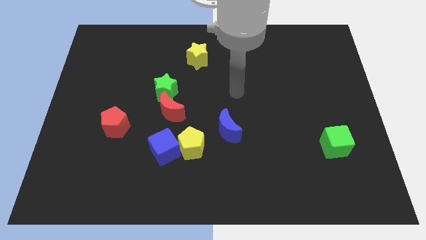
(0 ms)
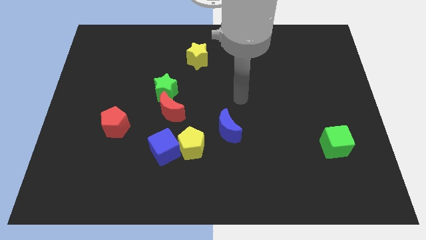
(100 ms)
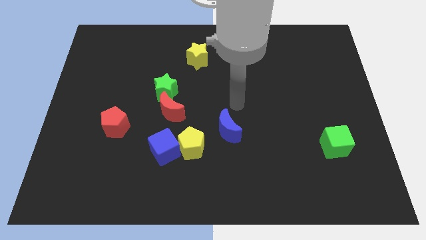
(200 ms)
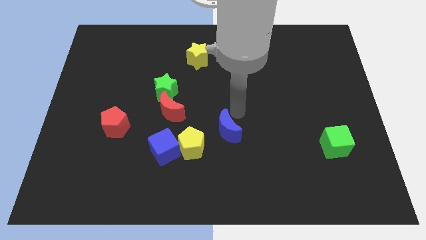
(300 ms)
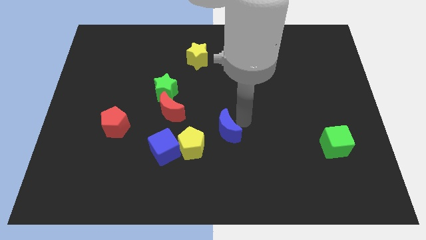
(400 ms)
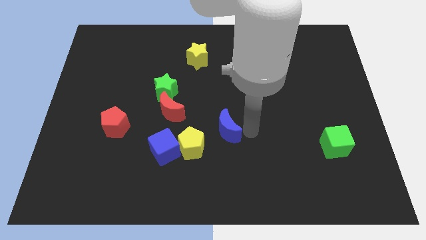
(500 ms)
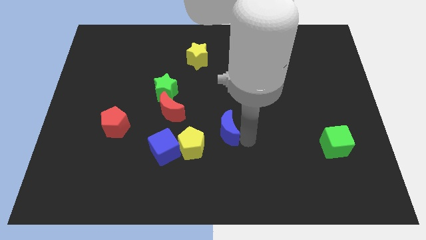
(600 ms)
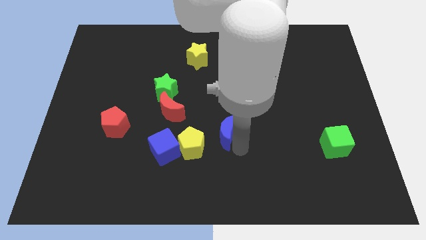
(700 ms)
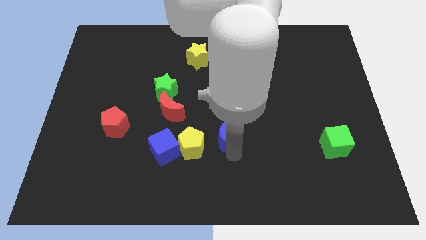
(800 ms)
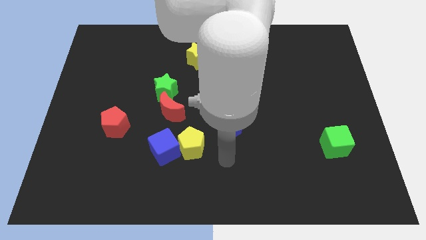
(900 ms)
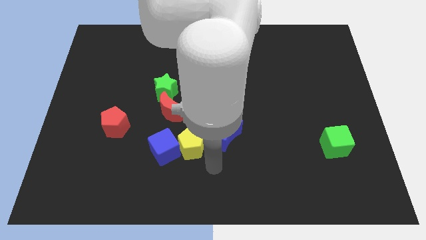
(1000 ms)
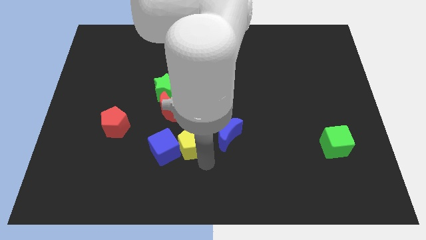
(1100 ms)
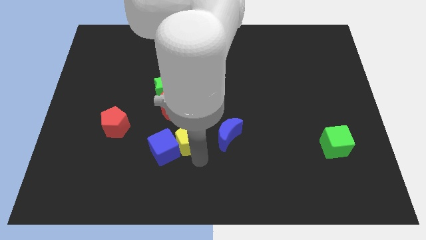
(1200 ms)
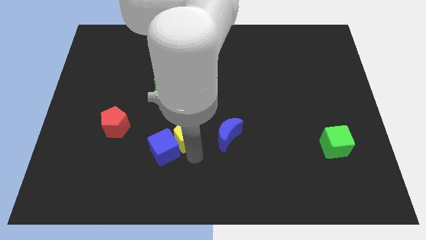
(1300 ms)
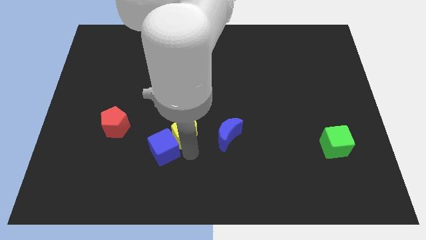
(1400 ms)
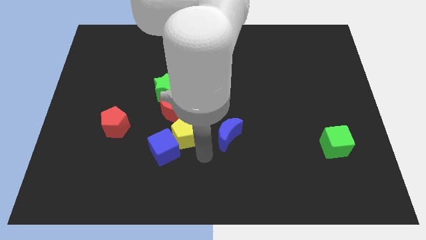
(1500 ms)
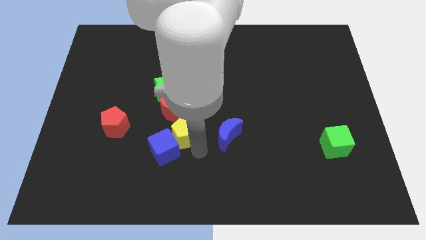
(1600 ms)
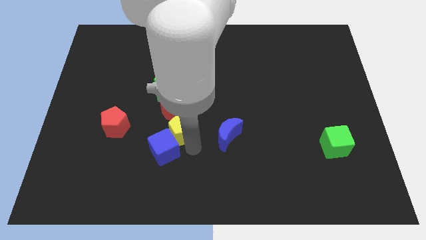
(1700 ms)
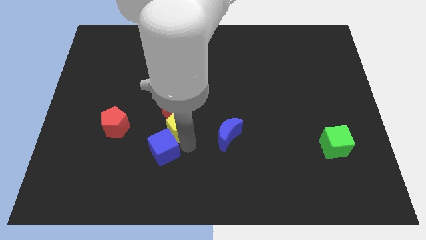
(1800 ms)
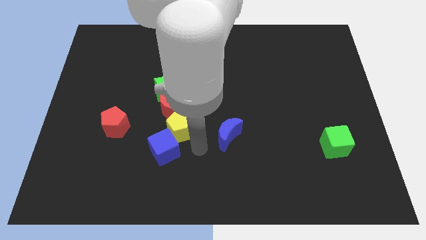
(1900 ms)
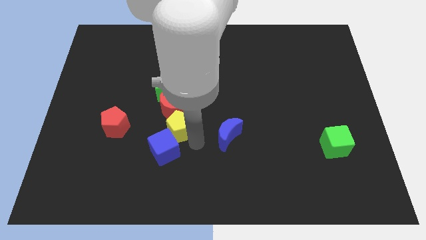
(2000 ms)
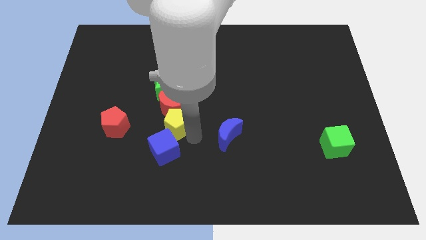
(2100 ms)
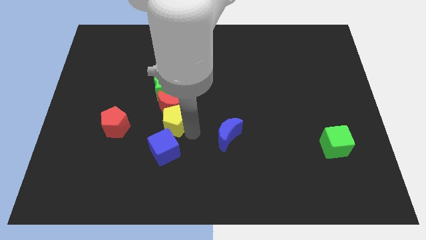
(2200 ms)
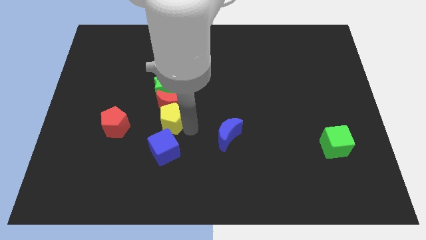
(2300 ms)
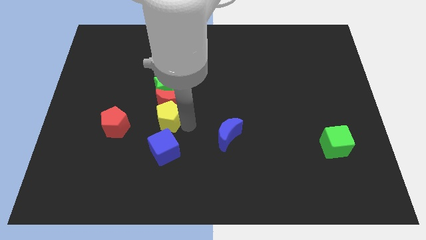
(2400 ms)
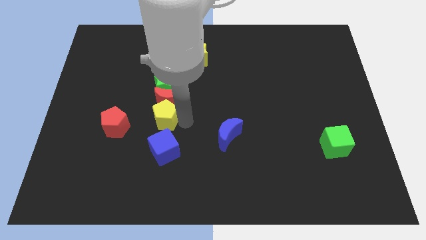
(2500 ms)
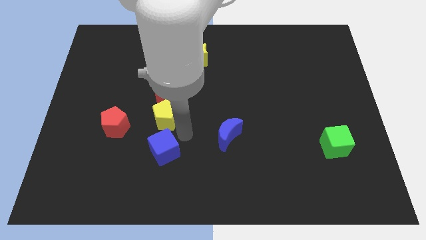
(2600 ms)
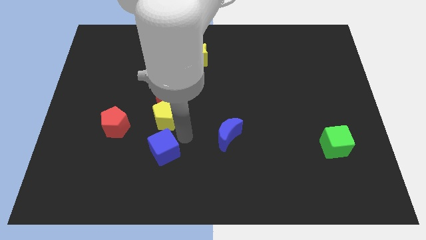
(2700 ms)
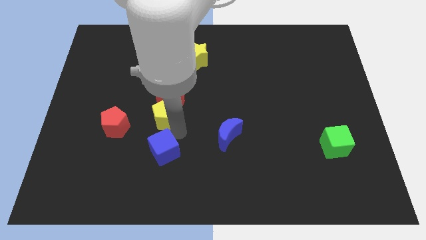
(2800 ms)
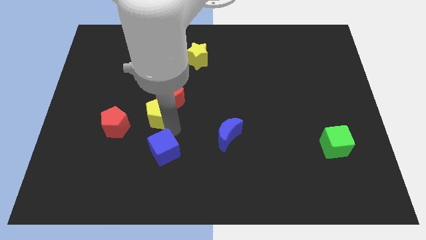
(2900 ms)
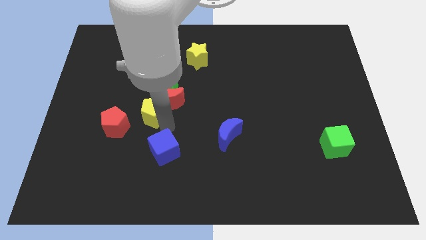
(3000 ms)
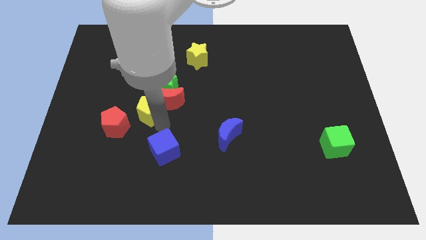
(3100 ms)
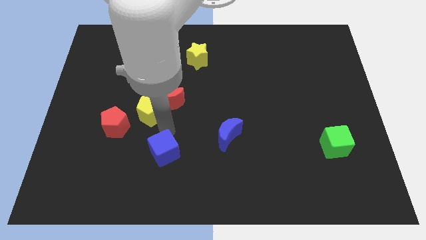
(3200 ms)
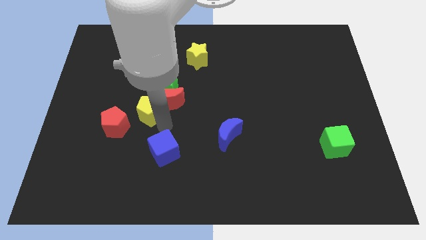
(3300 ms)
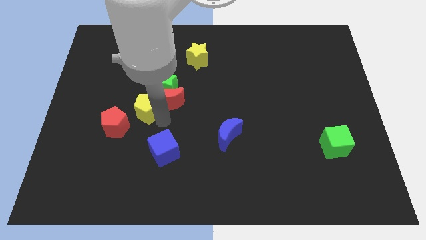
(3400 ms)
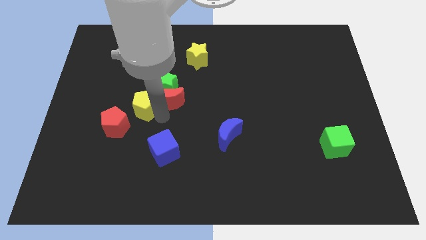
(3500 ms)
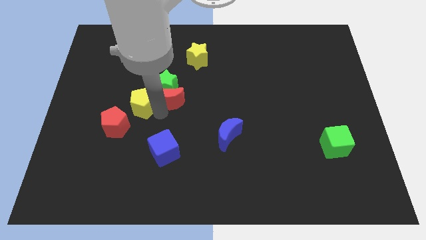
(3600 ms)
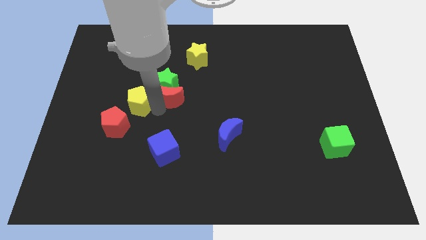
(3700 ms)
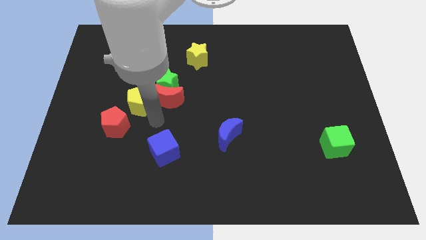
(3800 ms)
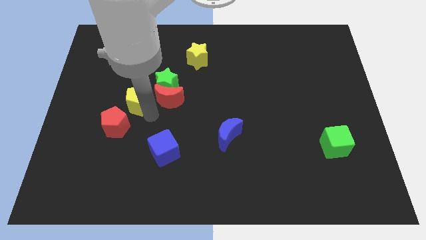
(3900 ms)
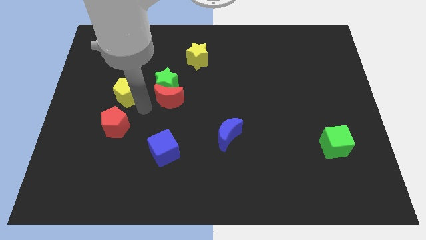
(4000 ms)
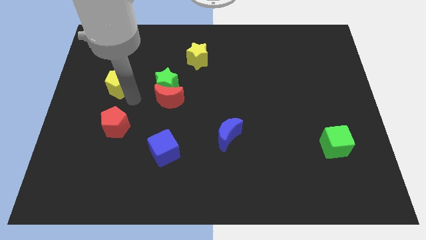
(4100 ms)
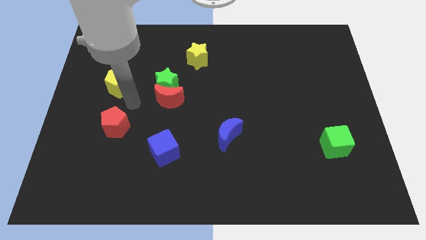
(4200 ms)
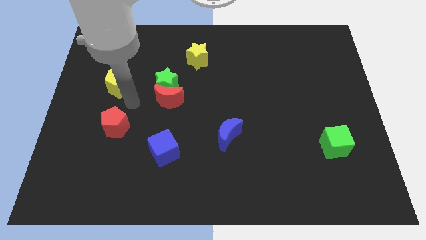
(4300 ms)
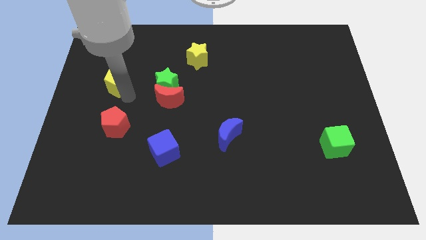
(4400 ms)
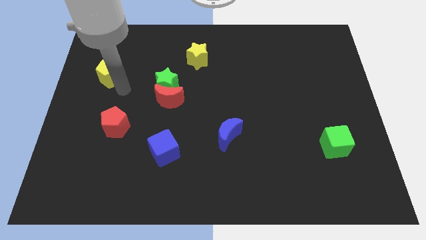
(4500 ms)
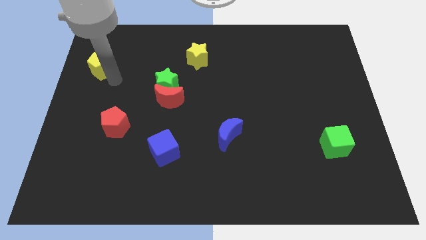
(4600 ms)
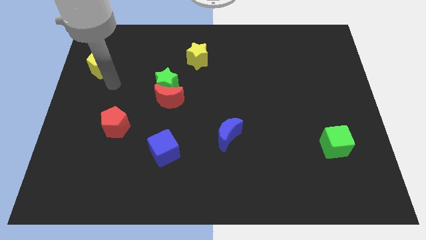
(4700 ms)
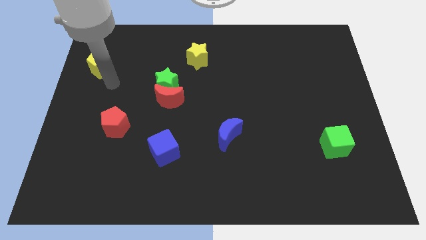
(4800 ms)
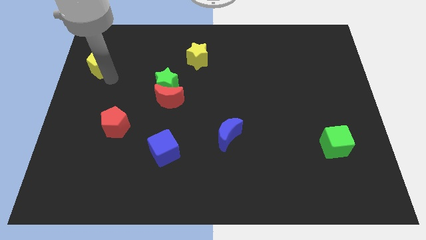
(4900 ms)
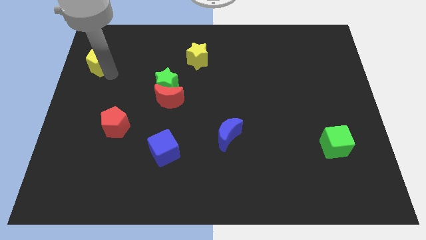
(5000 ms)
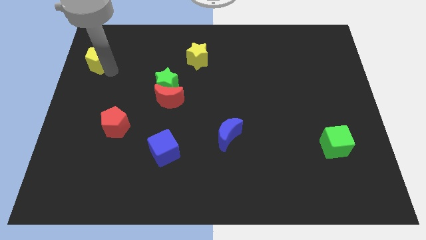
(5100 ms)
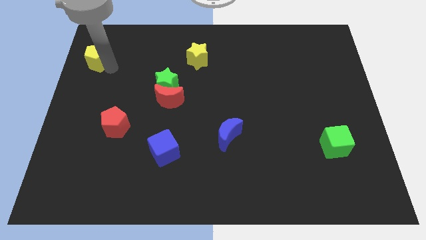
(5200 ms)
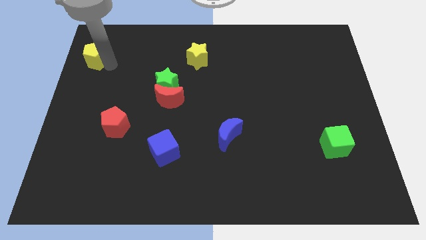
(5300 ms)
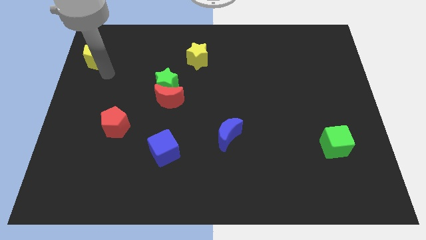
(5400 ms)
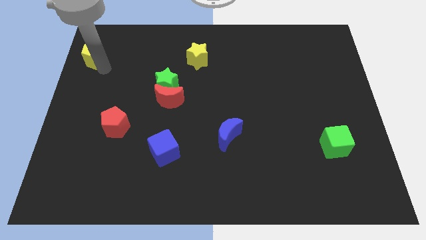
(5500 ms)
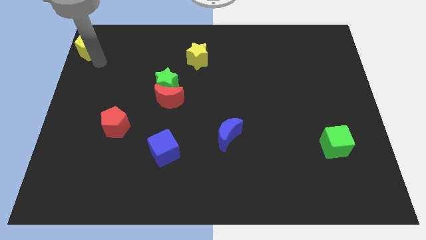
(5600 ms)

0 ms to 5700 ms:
put the yellow pentagon to the top left

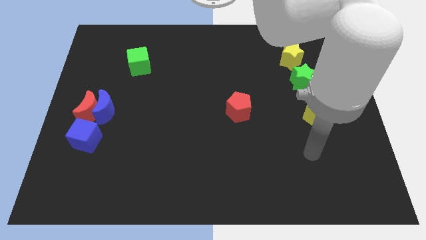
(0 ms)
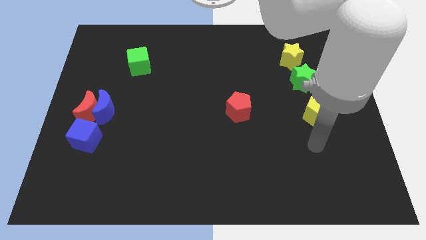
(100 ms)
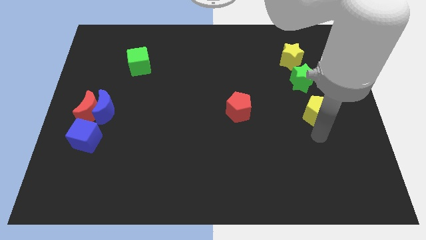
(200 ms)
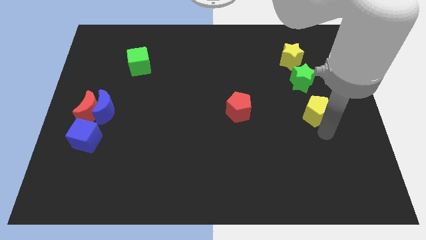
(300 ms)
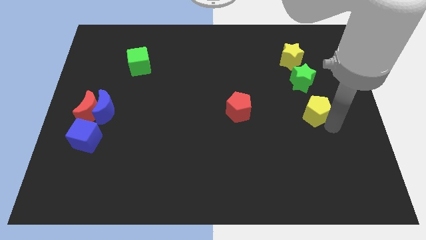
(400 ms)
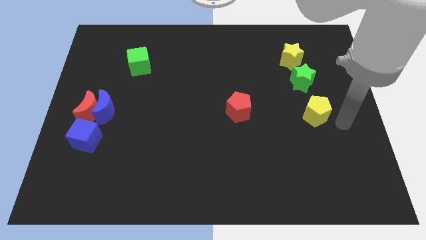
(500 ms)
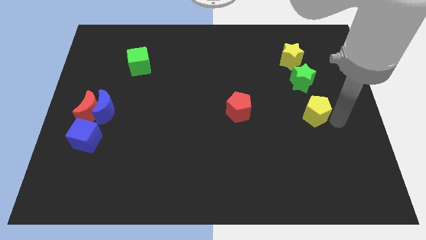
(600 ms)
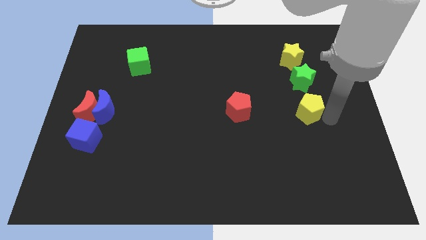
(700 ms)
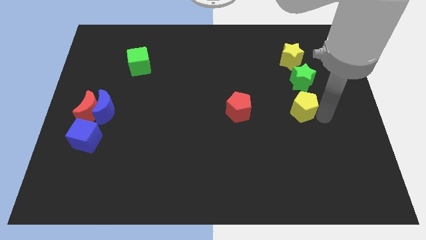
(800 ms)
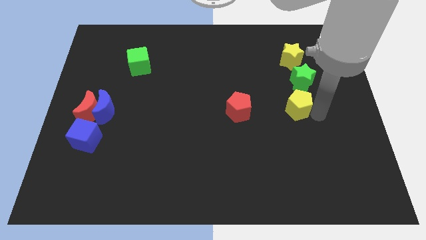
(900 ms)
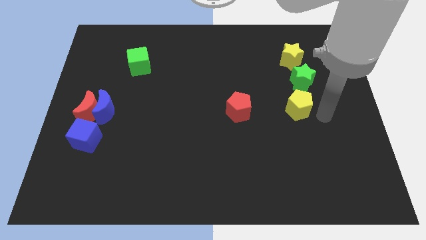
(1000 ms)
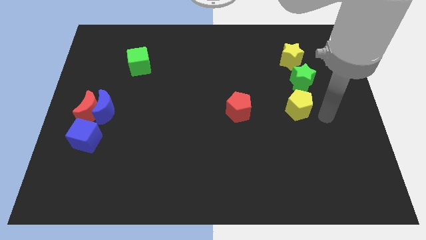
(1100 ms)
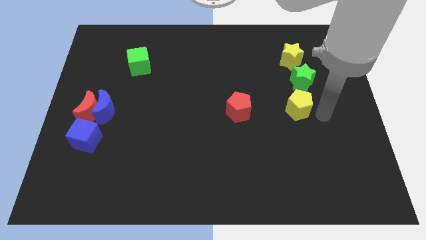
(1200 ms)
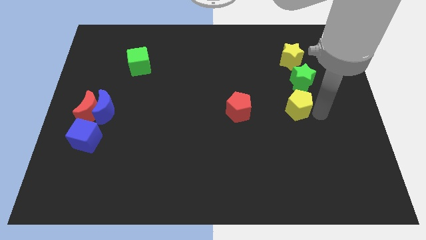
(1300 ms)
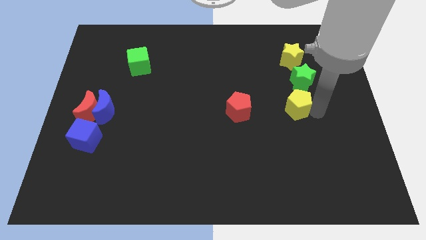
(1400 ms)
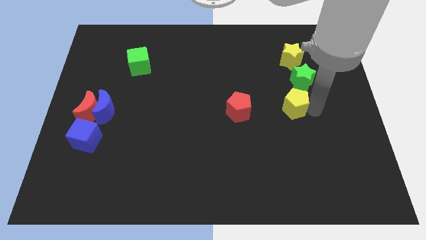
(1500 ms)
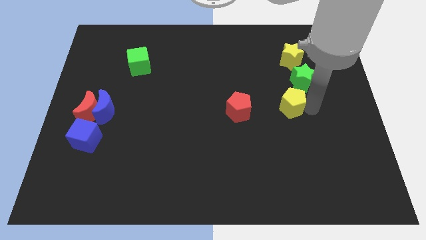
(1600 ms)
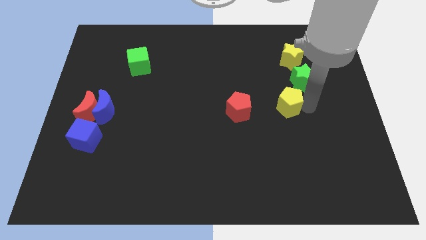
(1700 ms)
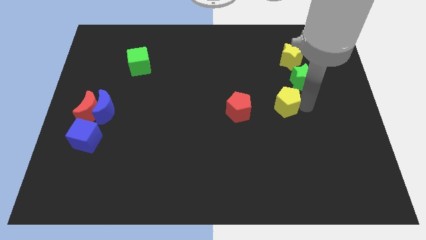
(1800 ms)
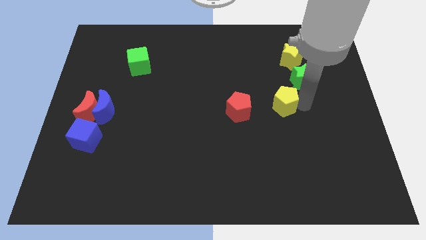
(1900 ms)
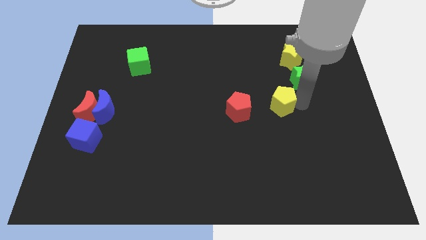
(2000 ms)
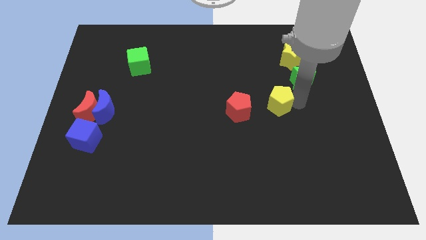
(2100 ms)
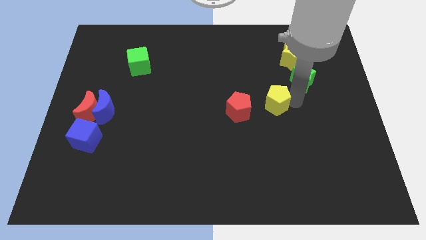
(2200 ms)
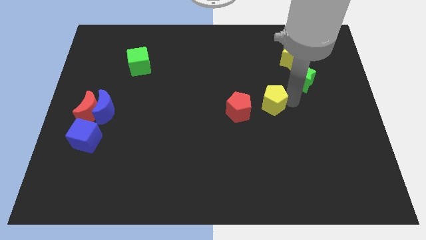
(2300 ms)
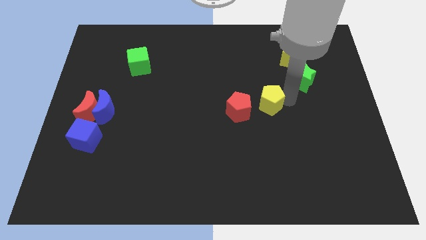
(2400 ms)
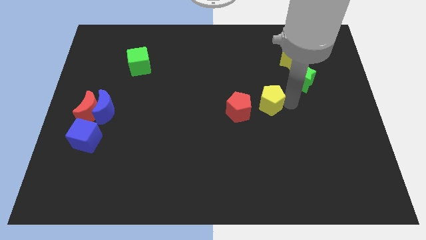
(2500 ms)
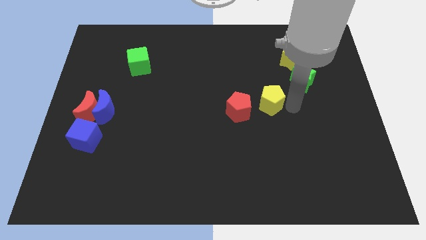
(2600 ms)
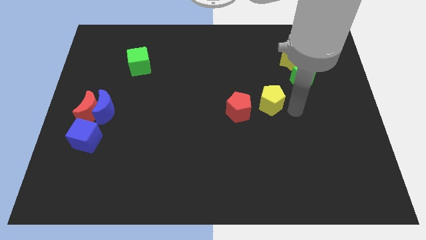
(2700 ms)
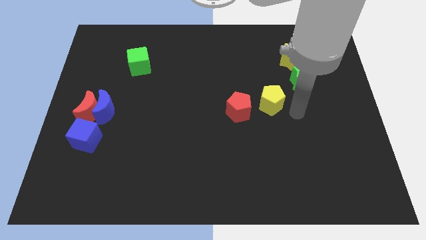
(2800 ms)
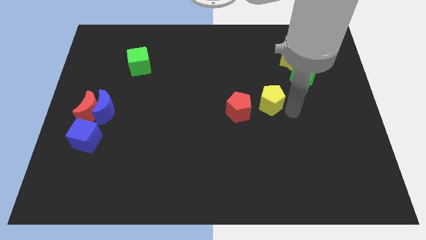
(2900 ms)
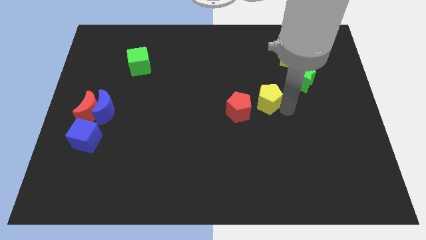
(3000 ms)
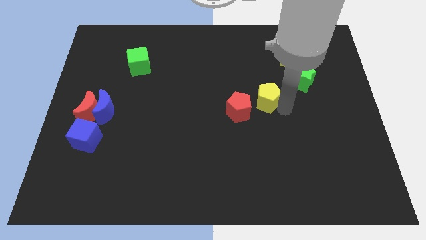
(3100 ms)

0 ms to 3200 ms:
put the yellow pentagon to the middle of the board
